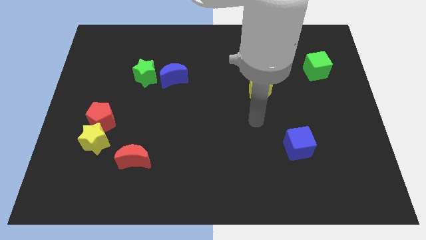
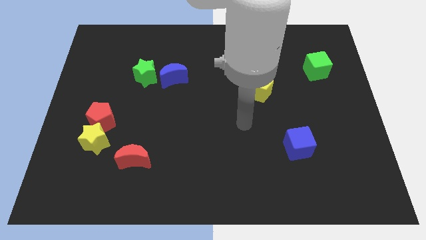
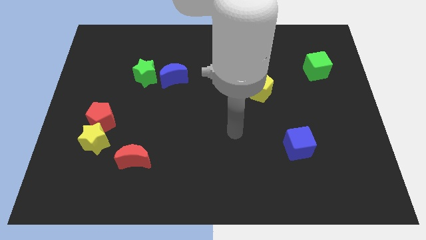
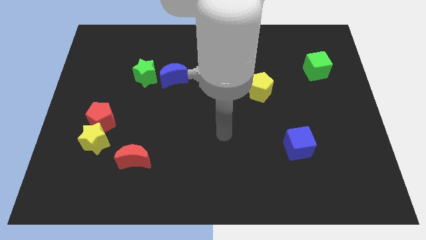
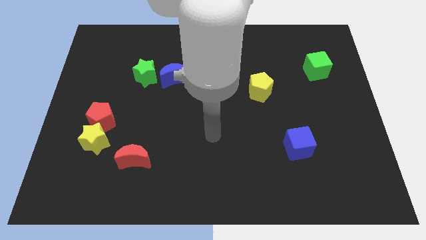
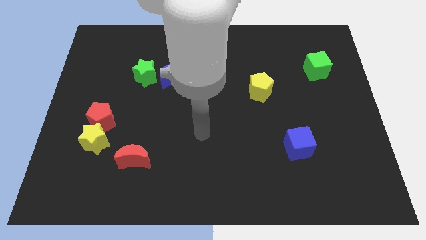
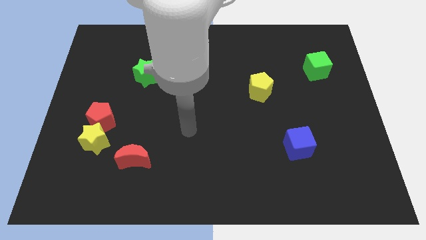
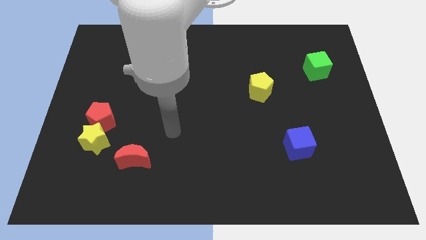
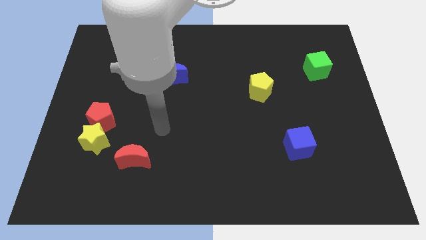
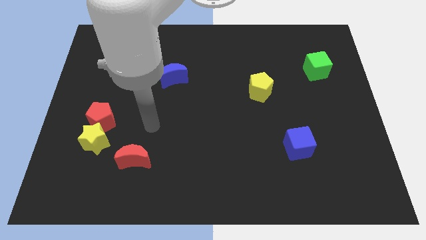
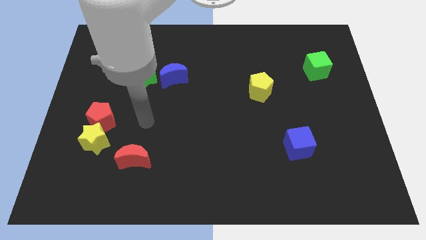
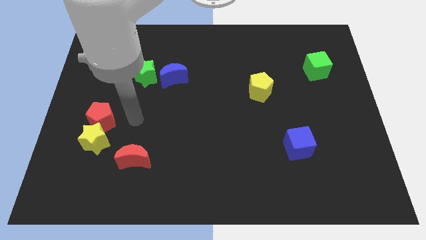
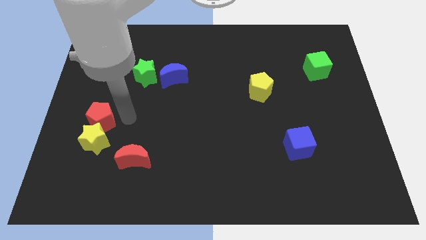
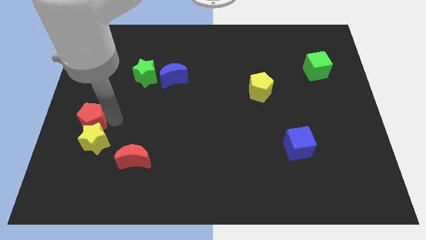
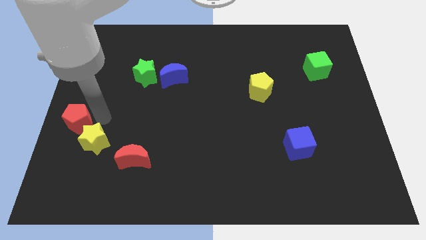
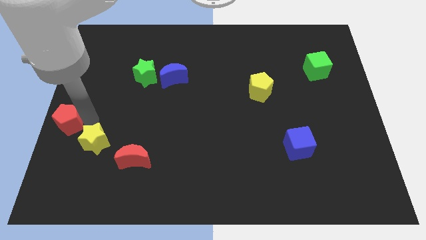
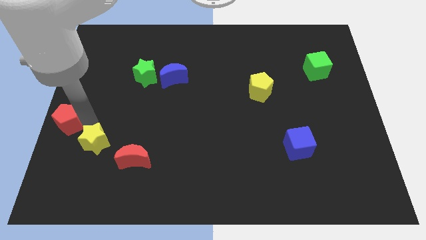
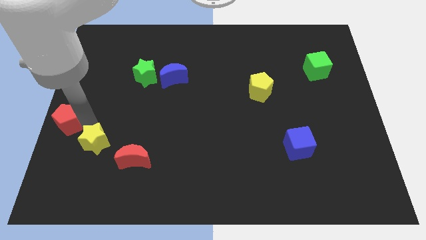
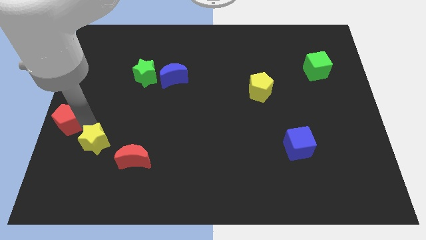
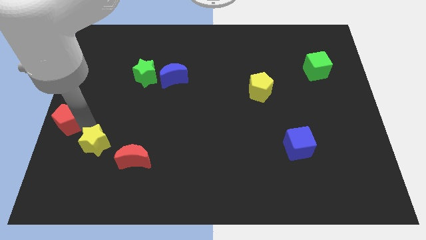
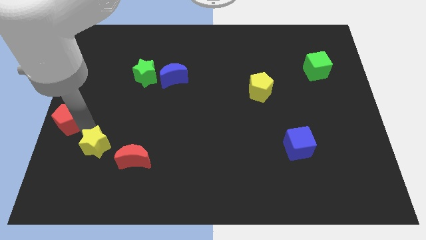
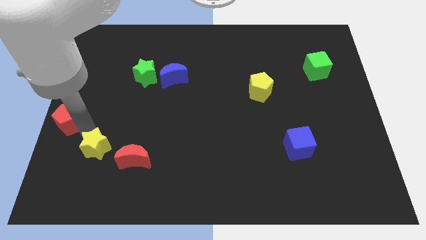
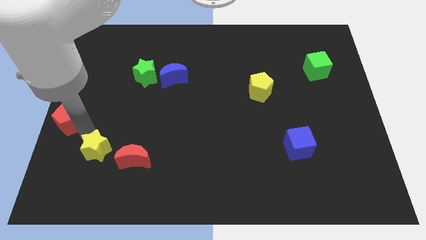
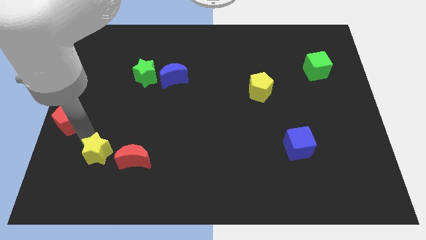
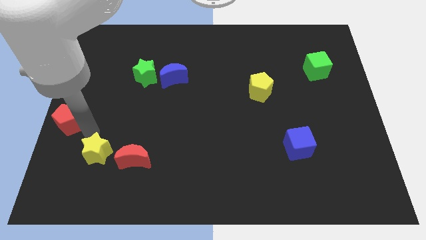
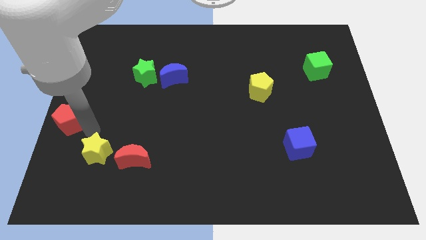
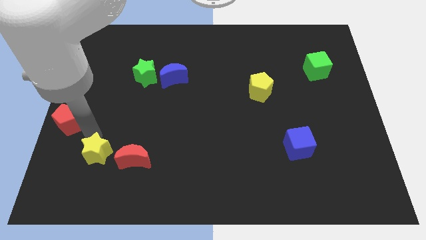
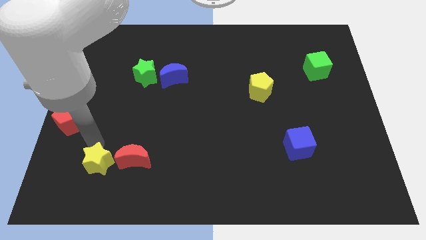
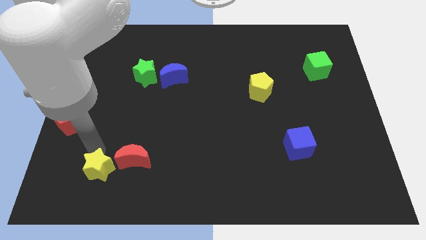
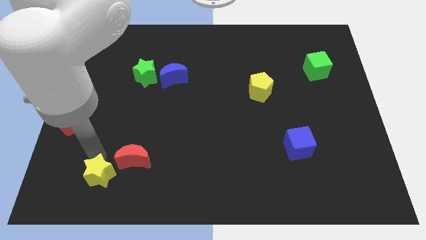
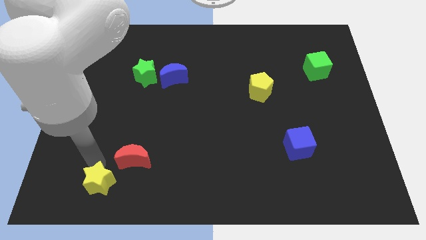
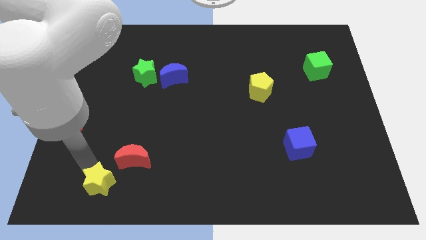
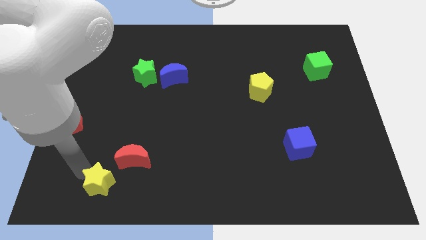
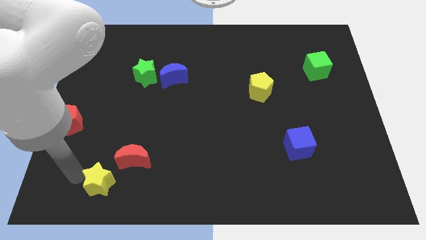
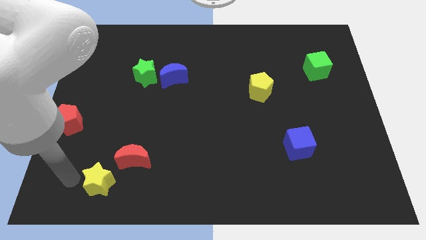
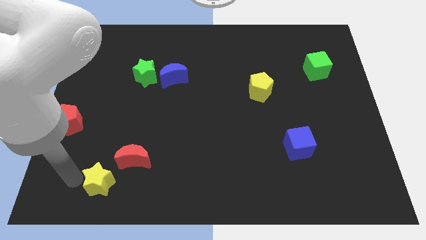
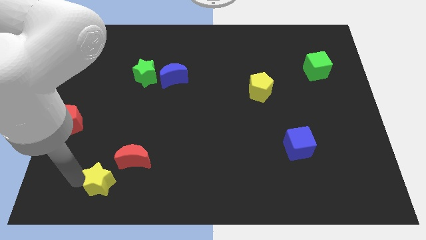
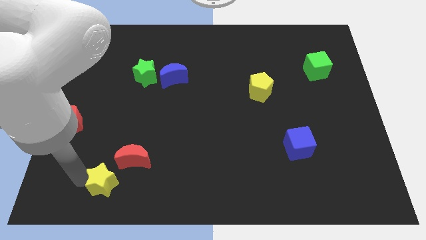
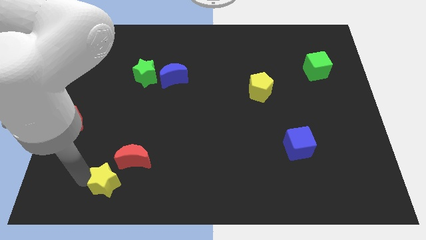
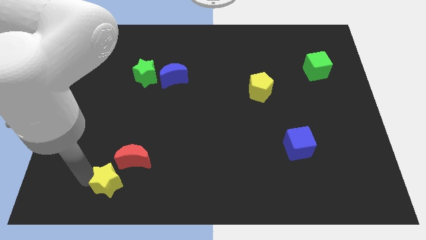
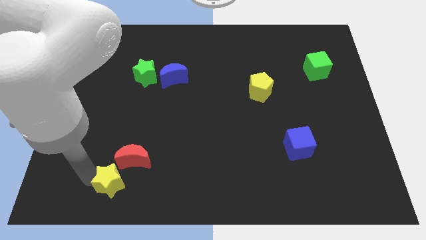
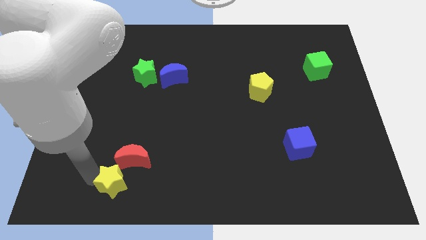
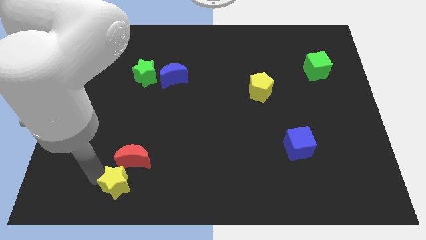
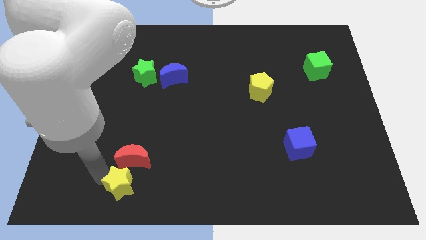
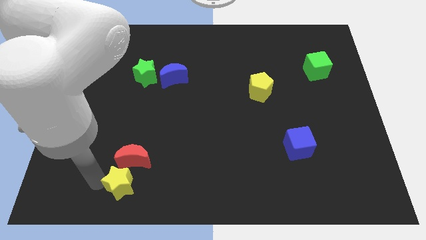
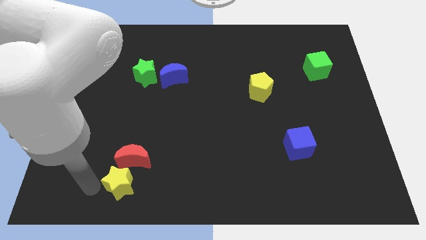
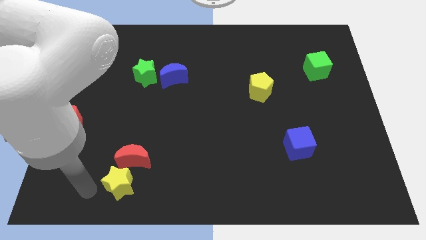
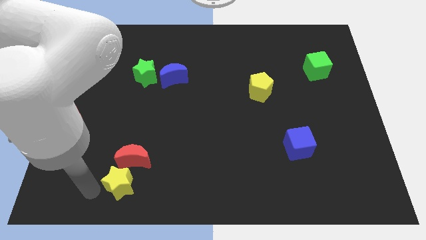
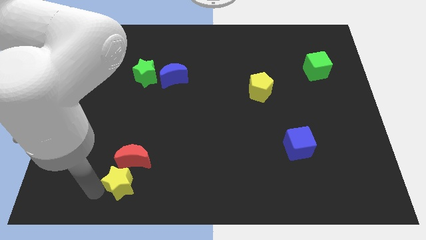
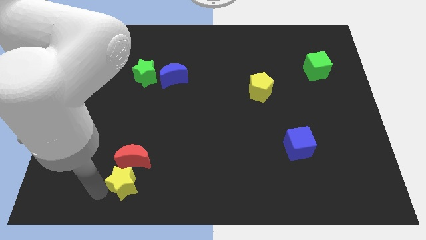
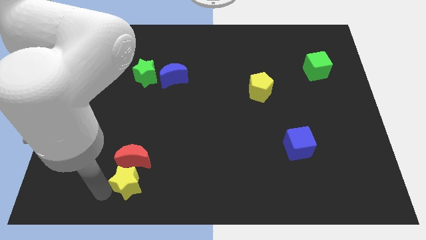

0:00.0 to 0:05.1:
slide the yellow star to the bottom right of the red moon

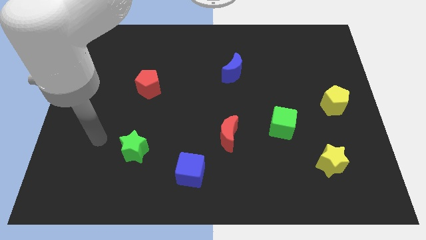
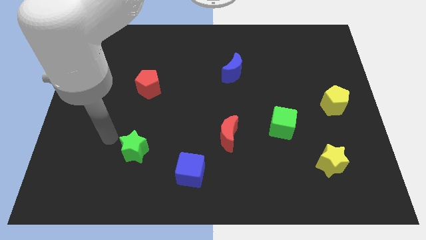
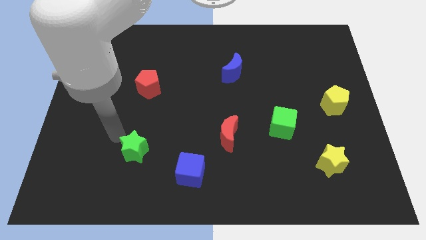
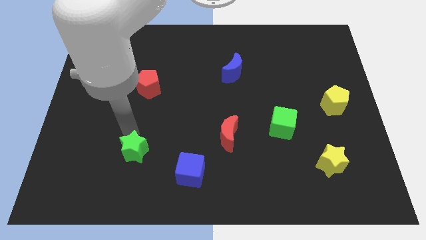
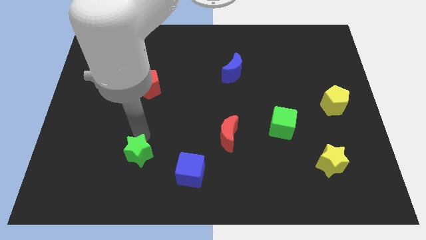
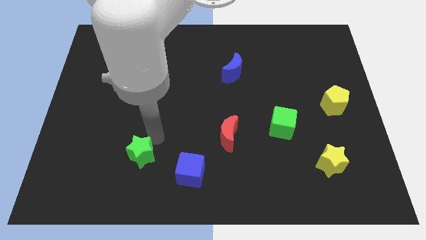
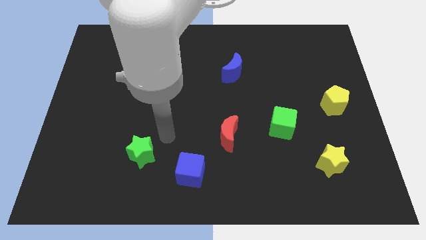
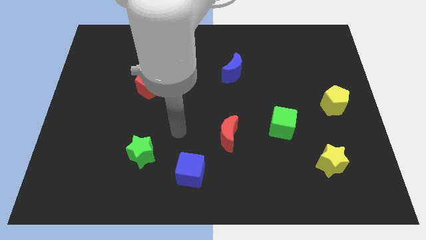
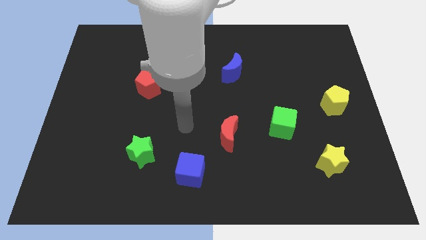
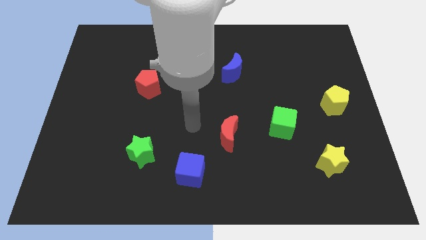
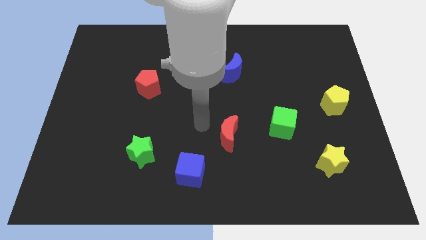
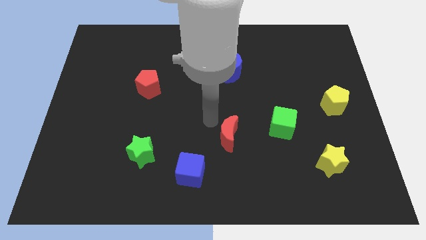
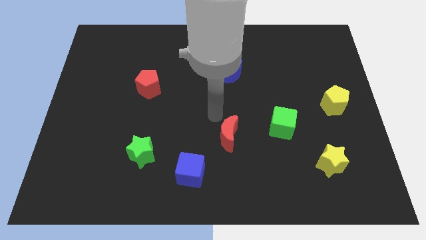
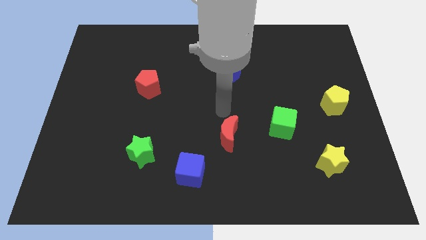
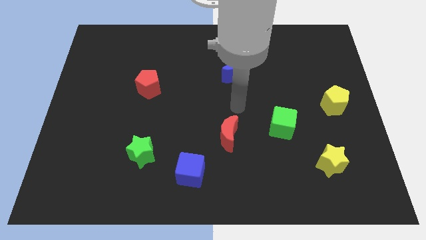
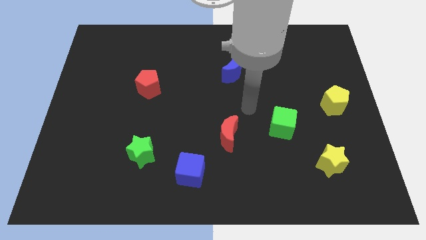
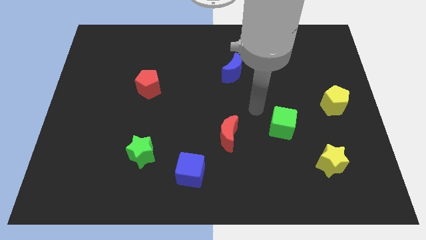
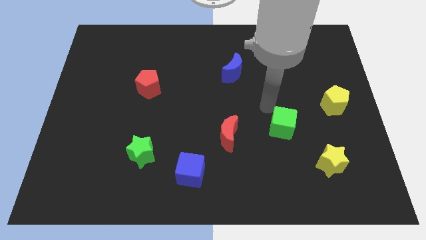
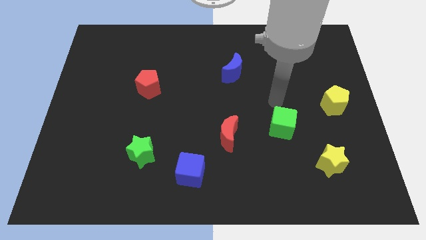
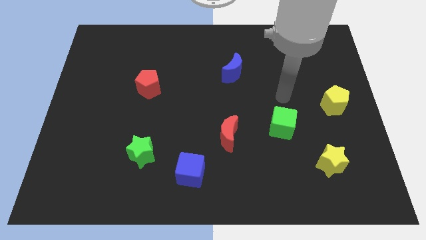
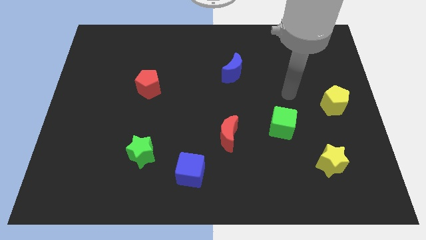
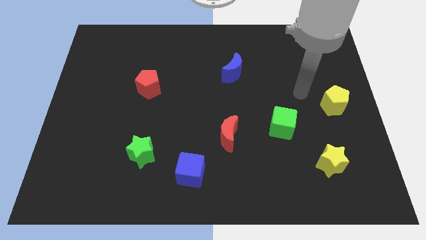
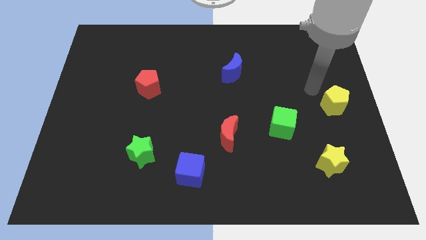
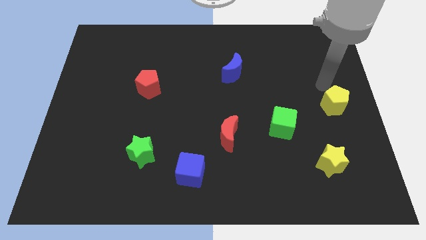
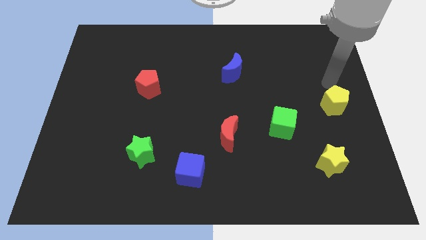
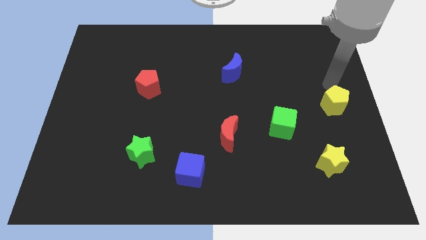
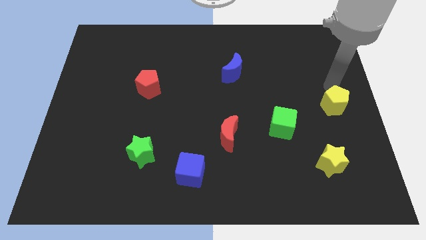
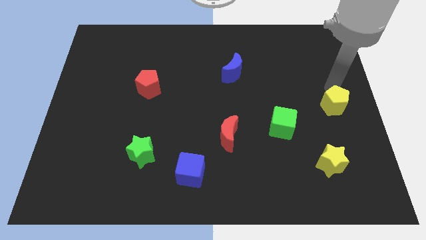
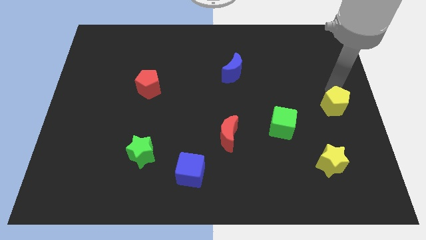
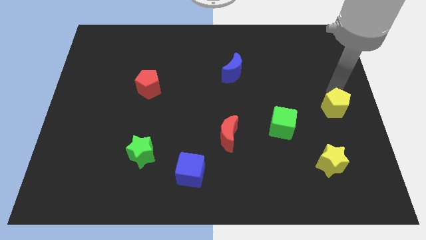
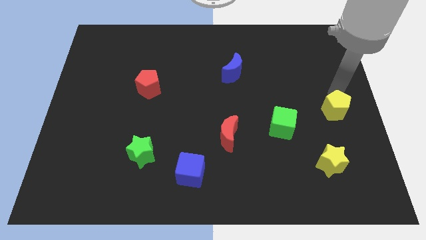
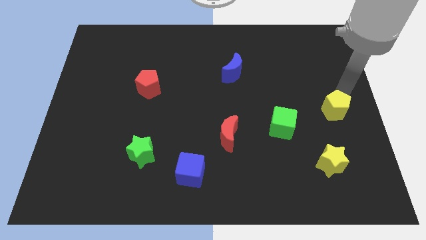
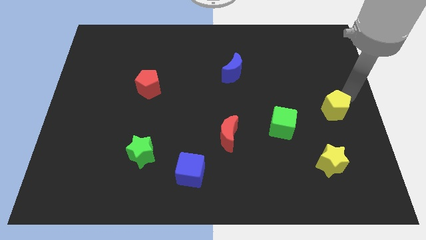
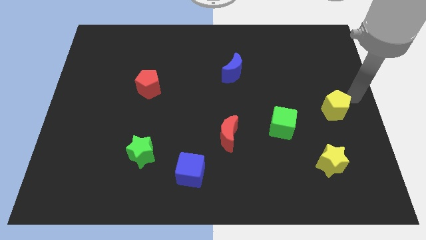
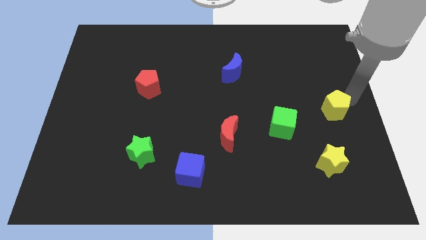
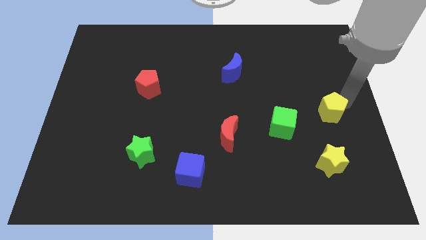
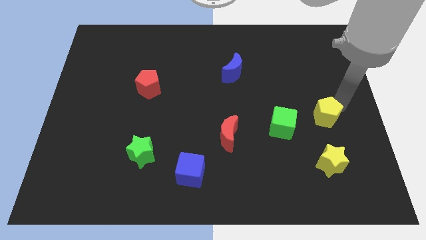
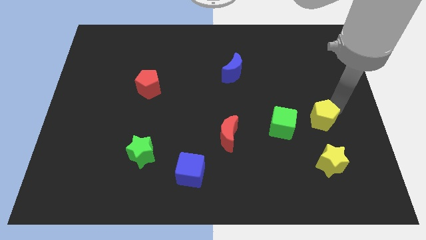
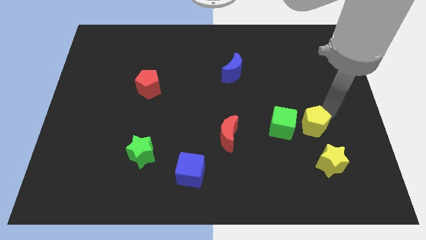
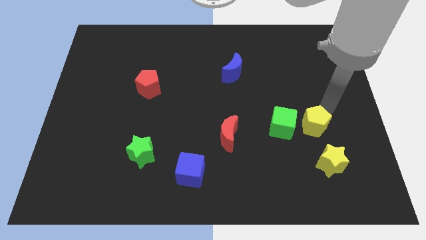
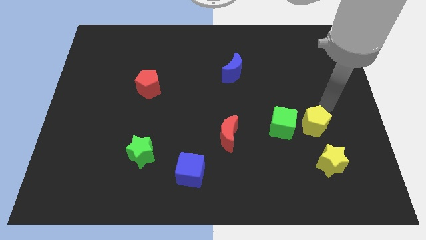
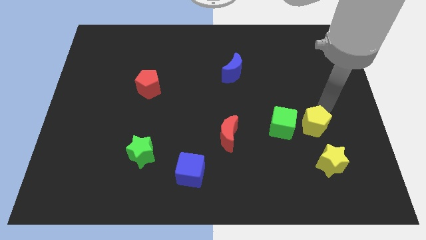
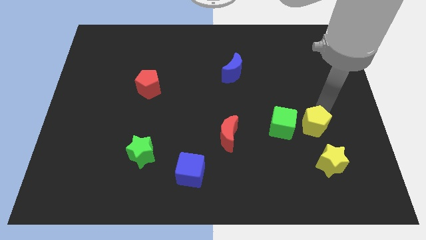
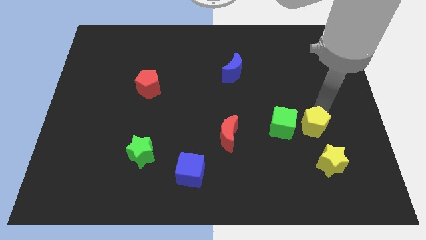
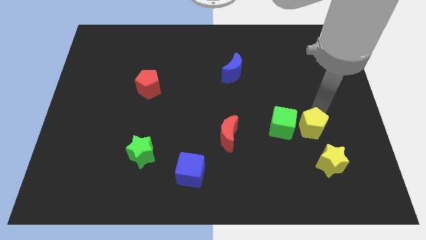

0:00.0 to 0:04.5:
push the yellow pentagon diagonally up and to the left of the yellow star
